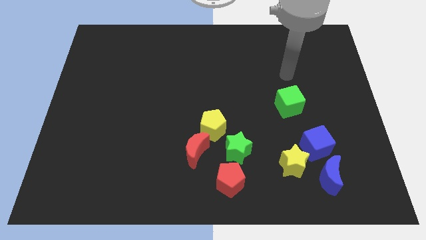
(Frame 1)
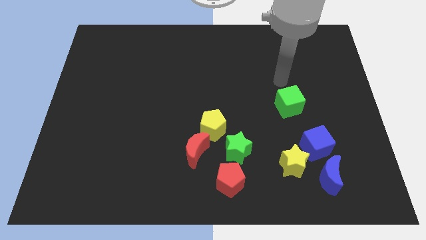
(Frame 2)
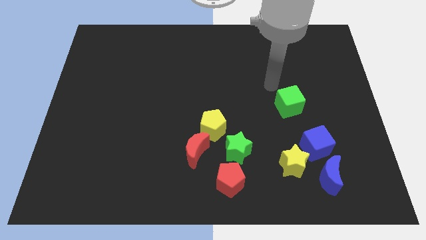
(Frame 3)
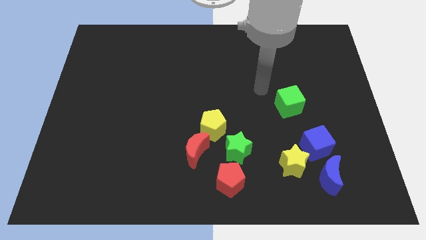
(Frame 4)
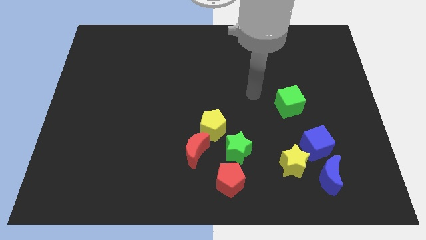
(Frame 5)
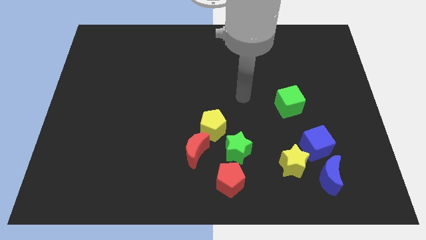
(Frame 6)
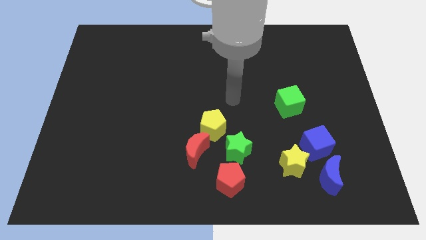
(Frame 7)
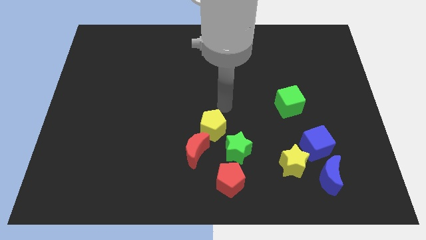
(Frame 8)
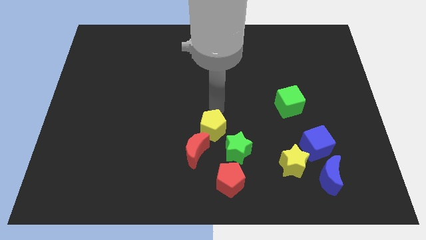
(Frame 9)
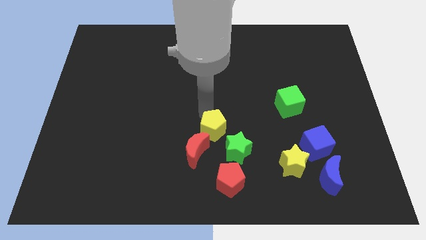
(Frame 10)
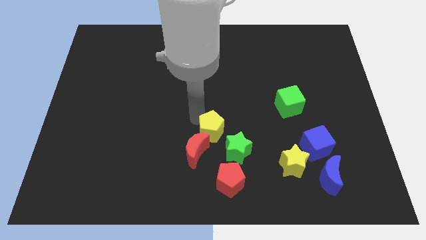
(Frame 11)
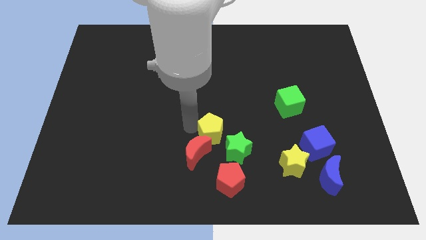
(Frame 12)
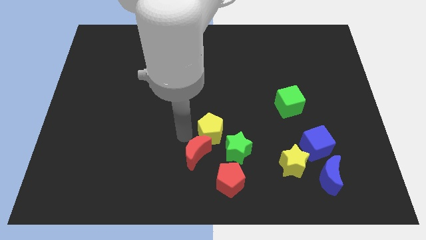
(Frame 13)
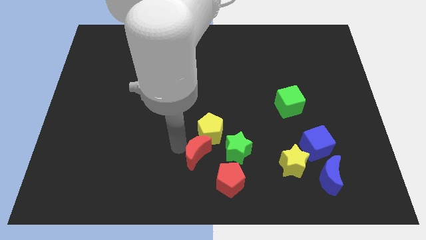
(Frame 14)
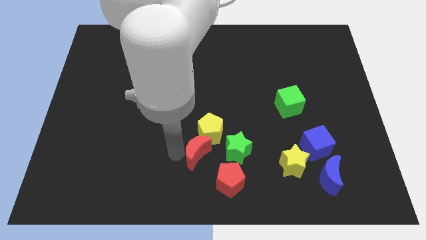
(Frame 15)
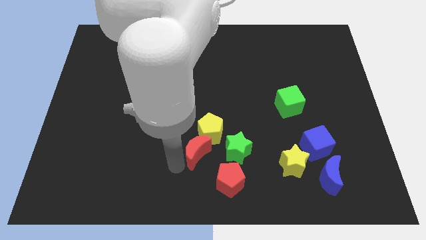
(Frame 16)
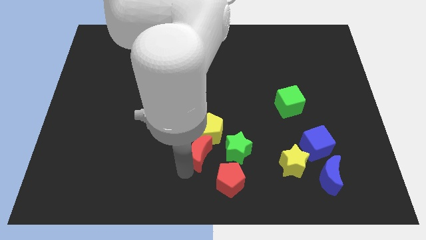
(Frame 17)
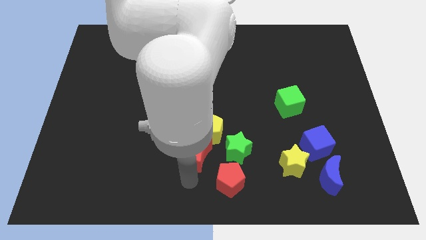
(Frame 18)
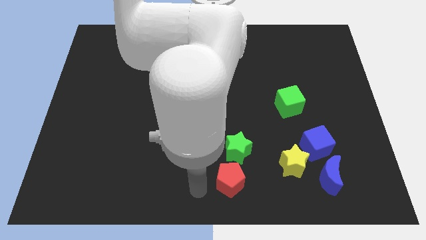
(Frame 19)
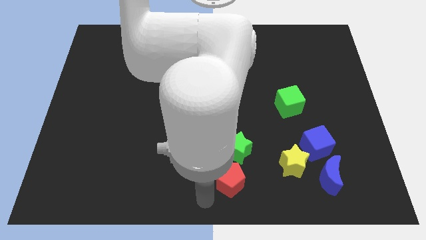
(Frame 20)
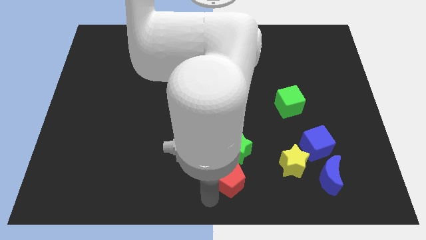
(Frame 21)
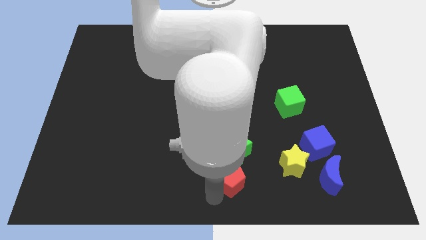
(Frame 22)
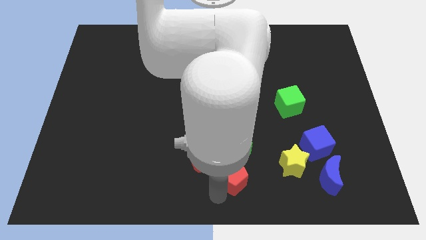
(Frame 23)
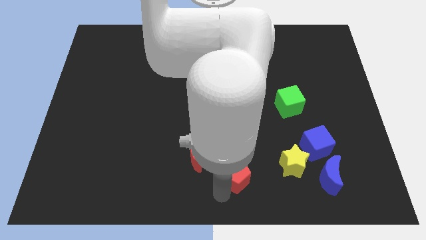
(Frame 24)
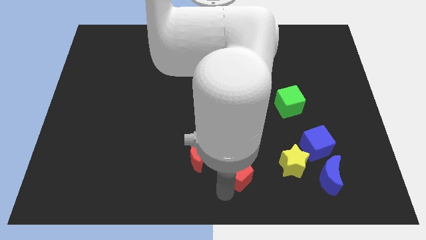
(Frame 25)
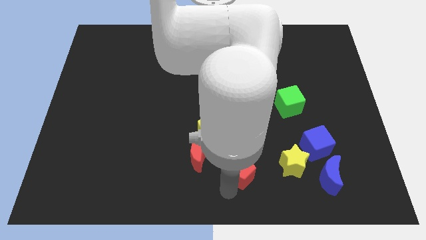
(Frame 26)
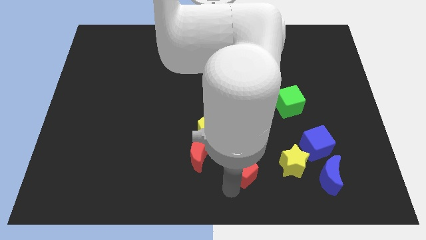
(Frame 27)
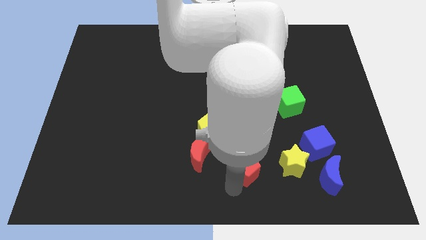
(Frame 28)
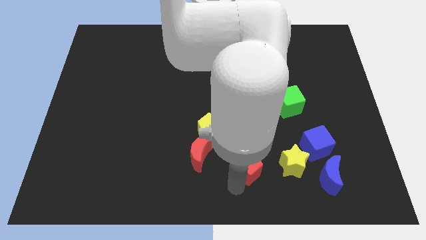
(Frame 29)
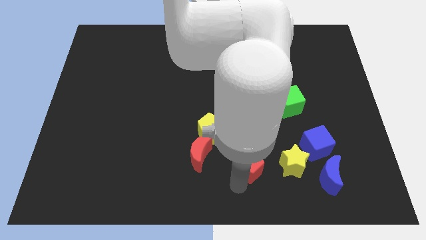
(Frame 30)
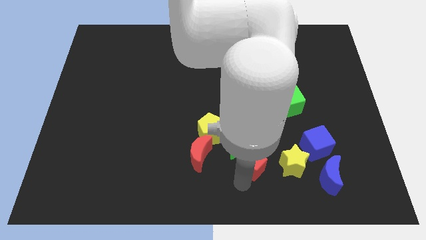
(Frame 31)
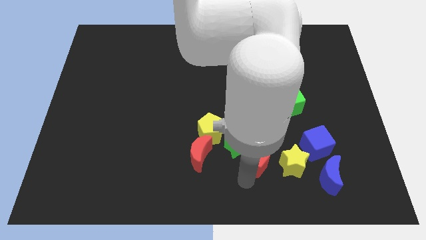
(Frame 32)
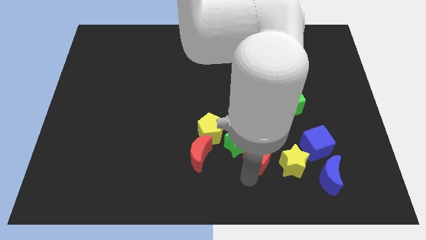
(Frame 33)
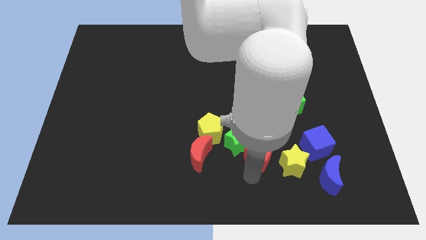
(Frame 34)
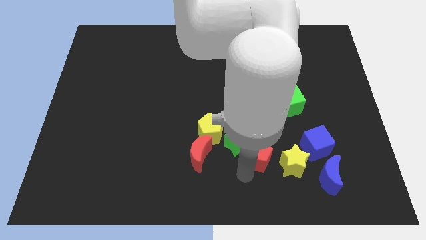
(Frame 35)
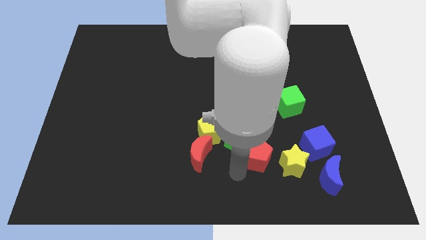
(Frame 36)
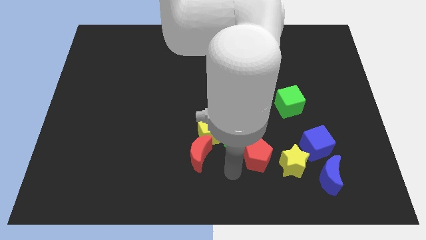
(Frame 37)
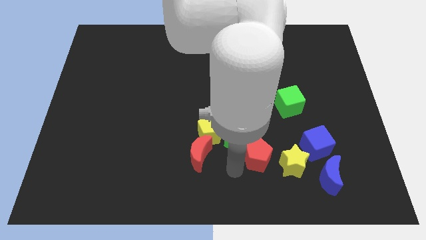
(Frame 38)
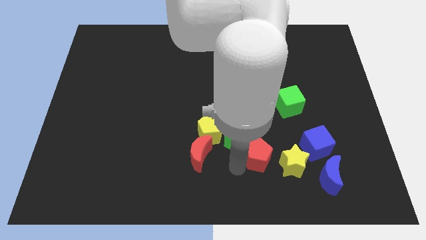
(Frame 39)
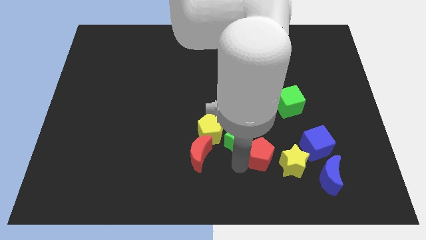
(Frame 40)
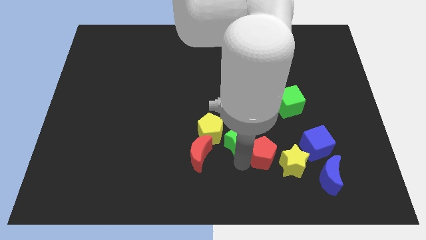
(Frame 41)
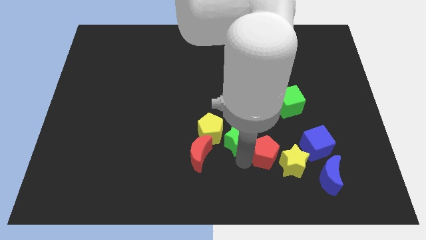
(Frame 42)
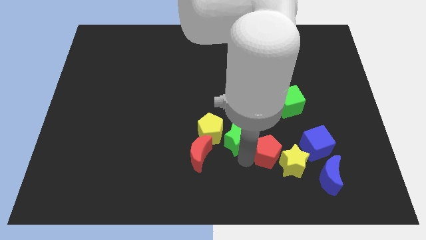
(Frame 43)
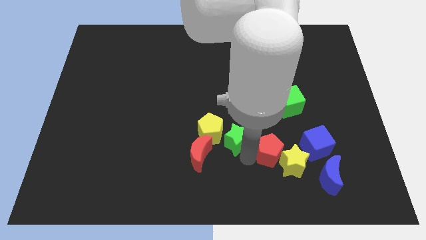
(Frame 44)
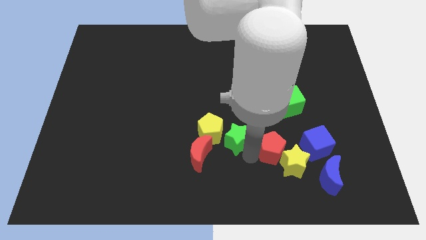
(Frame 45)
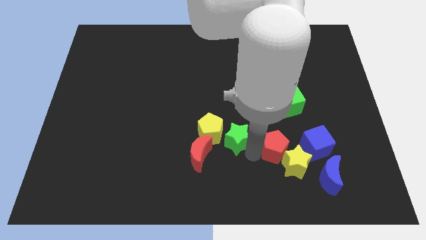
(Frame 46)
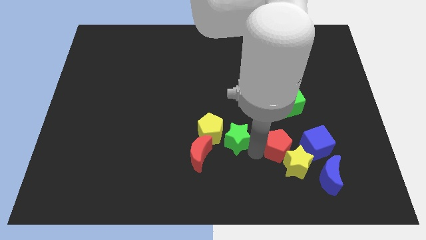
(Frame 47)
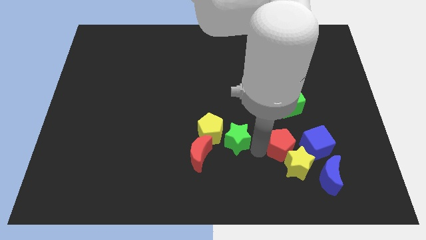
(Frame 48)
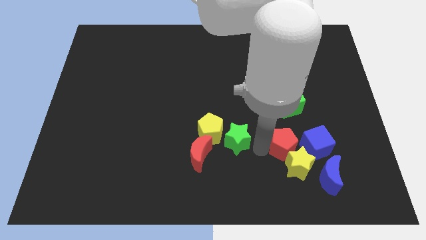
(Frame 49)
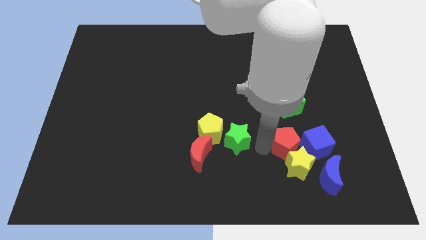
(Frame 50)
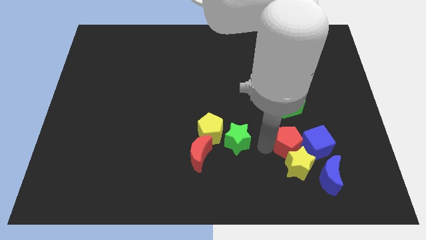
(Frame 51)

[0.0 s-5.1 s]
slide the red pentagon to the blue cube

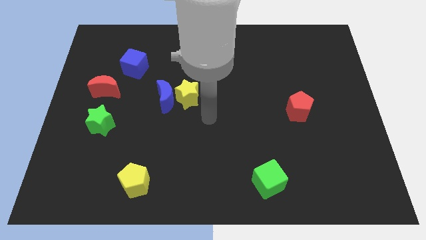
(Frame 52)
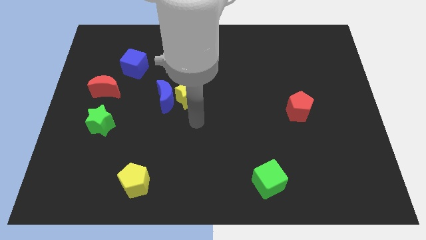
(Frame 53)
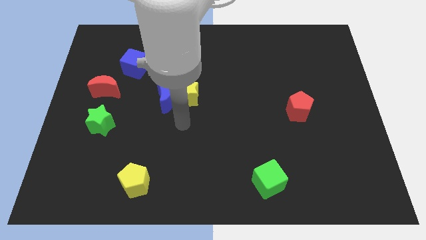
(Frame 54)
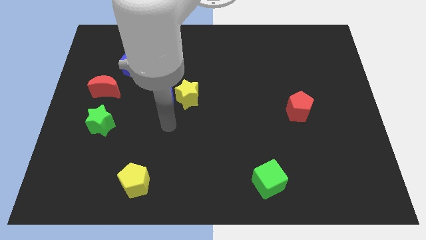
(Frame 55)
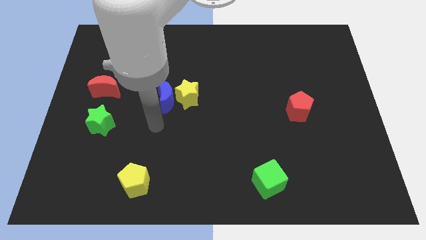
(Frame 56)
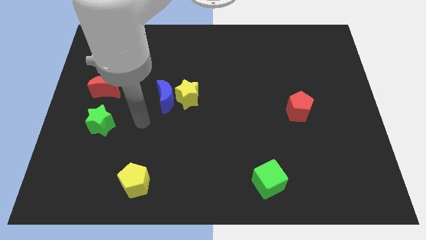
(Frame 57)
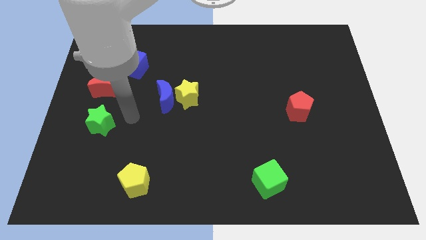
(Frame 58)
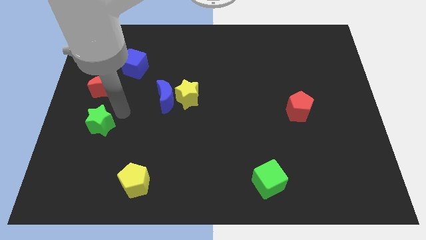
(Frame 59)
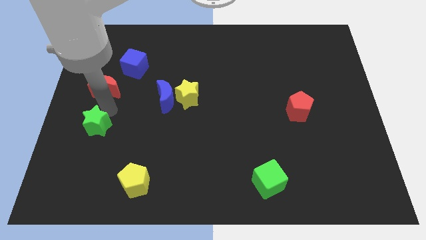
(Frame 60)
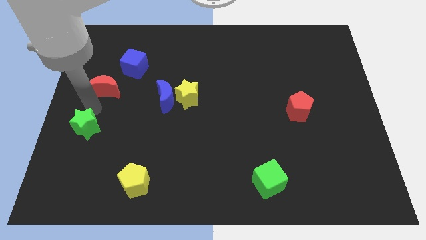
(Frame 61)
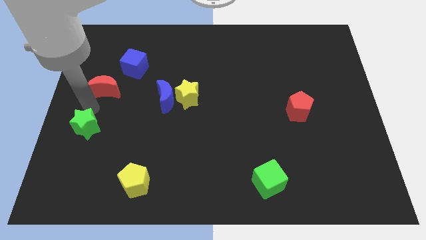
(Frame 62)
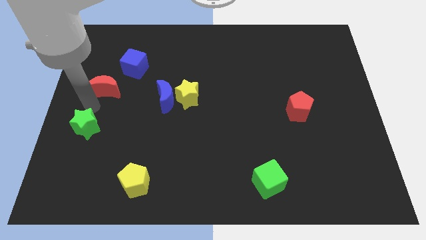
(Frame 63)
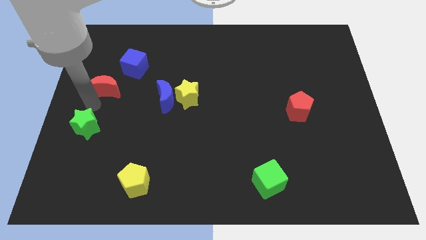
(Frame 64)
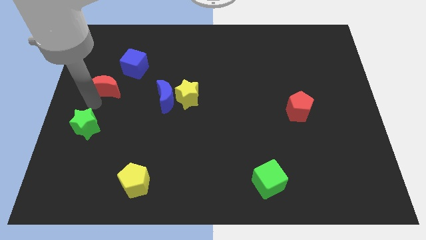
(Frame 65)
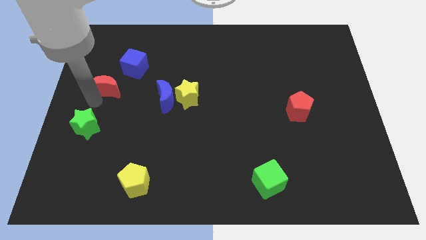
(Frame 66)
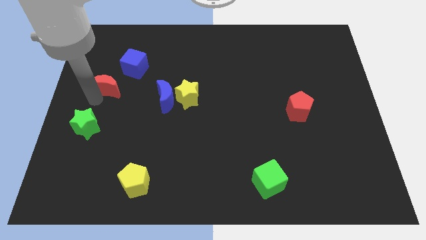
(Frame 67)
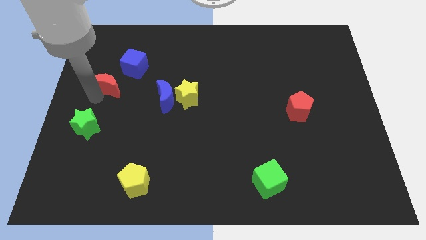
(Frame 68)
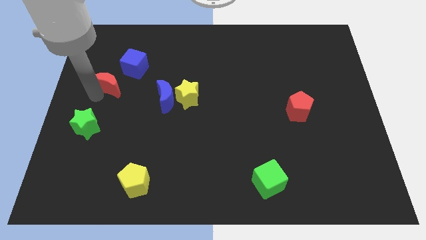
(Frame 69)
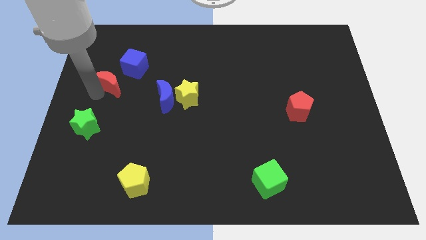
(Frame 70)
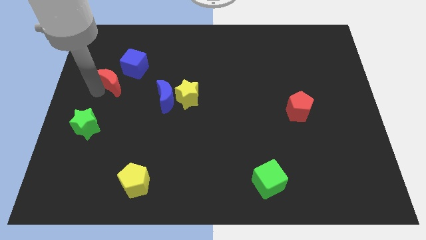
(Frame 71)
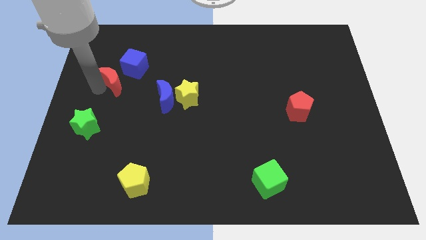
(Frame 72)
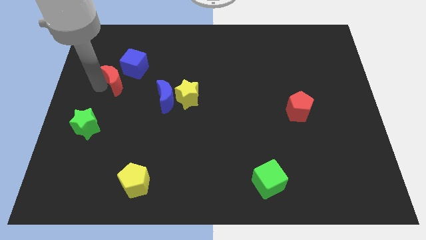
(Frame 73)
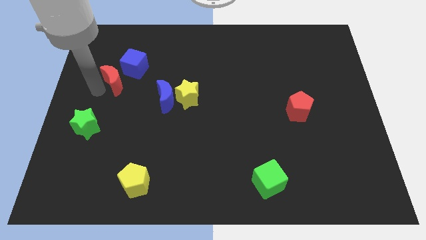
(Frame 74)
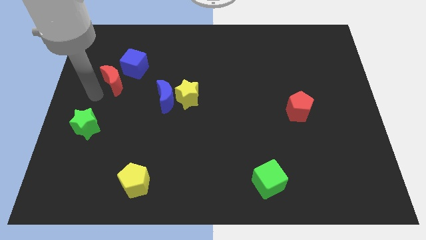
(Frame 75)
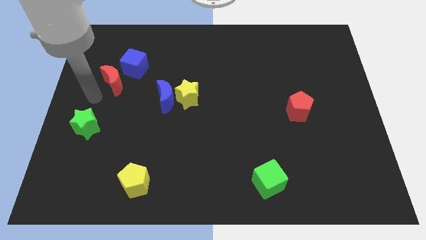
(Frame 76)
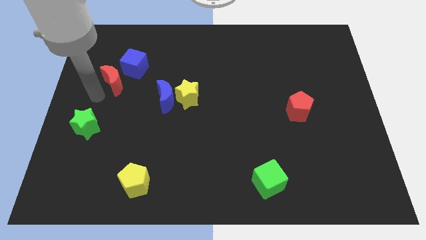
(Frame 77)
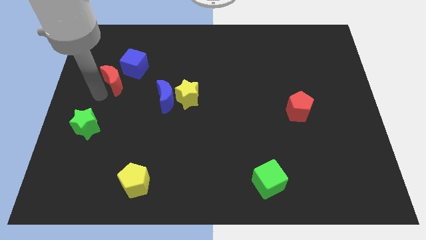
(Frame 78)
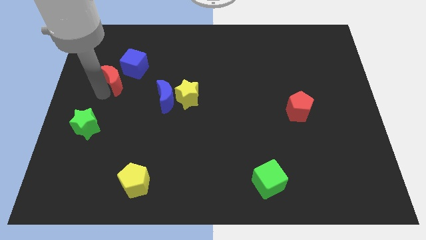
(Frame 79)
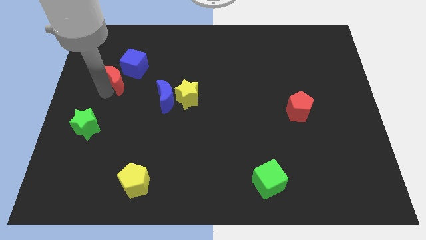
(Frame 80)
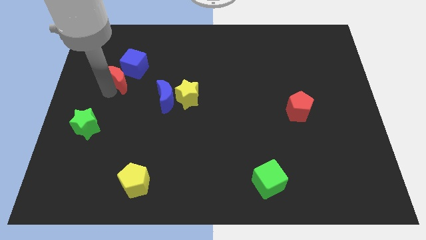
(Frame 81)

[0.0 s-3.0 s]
slide the red moon to the blue cube
